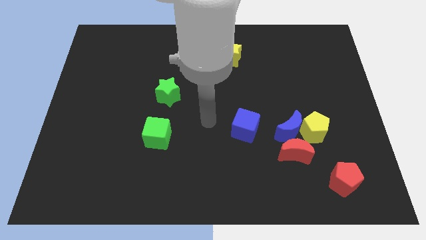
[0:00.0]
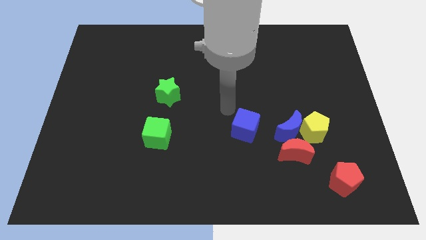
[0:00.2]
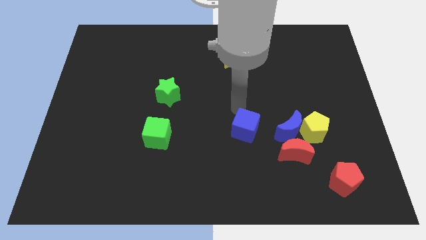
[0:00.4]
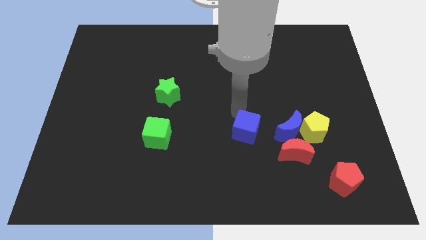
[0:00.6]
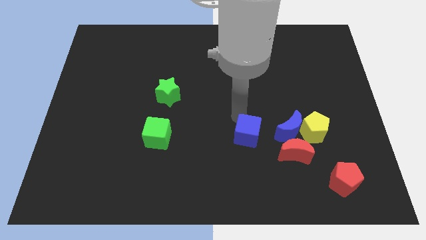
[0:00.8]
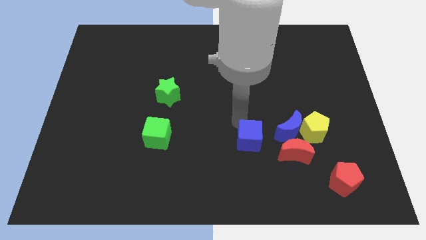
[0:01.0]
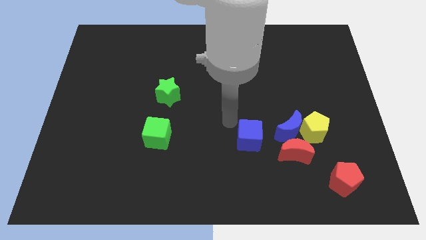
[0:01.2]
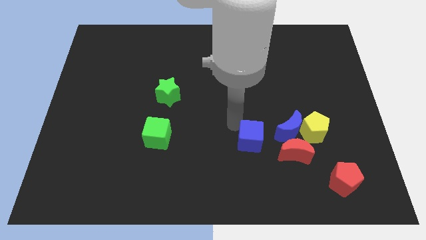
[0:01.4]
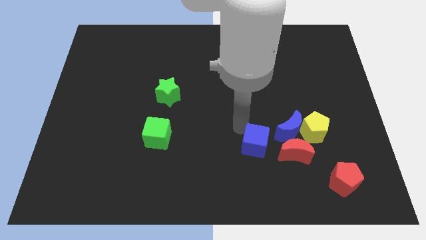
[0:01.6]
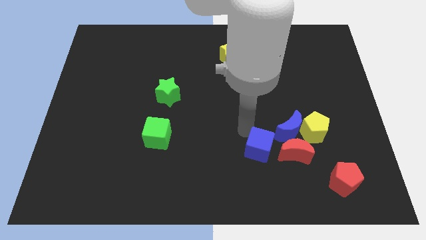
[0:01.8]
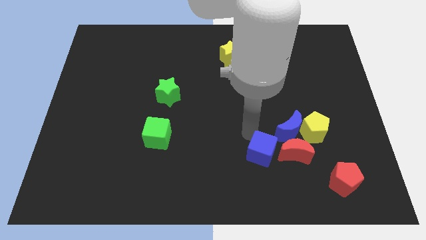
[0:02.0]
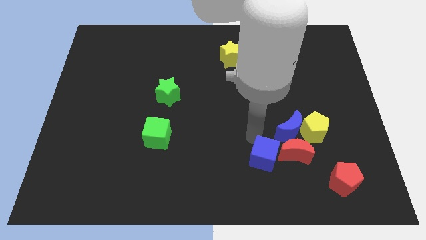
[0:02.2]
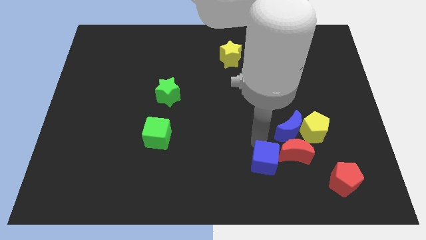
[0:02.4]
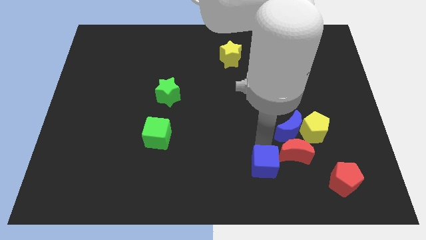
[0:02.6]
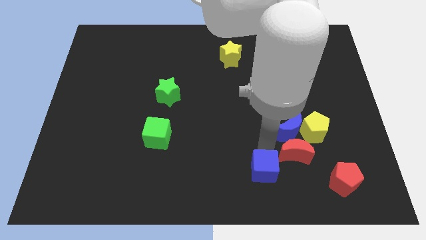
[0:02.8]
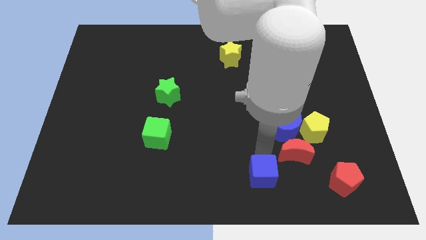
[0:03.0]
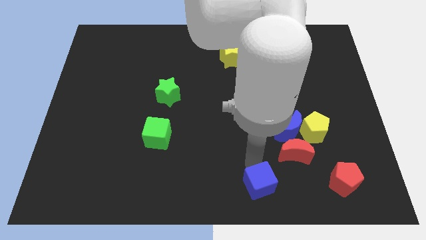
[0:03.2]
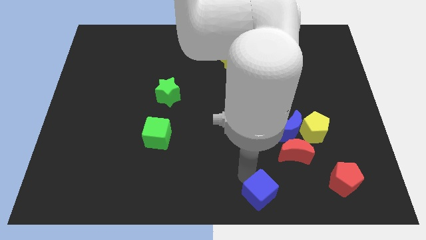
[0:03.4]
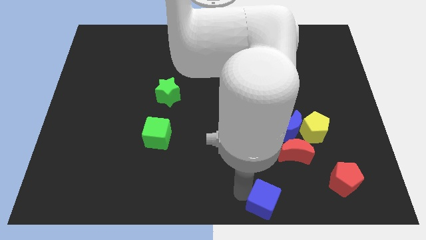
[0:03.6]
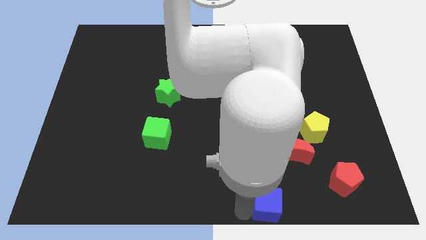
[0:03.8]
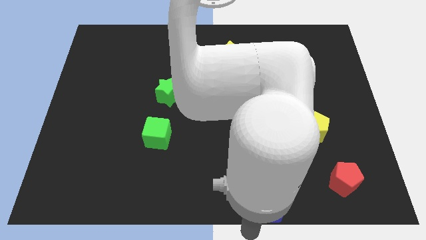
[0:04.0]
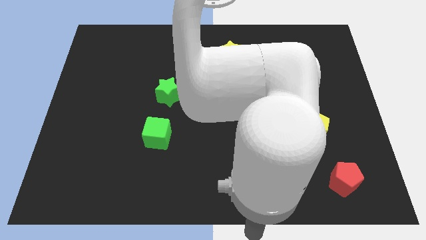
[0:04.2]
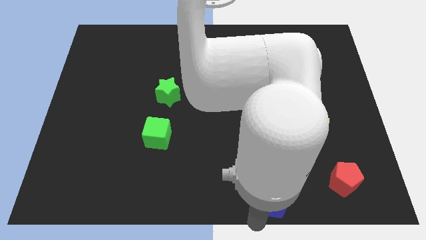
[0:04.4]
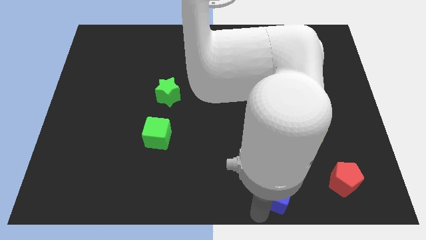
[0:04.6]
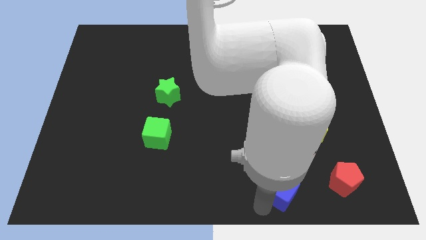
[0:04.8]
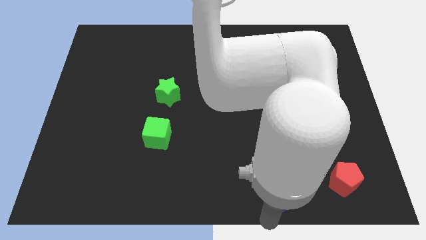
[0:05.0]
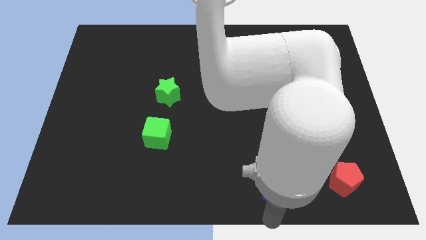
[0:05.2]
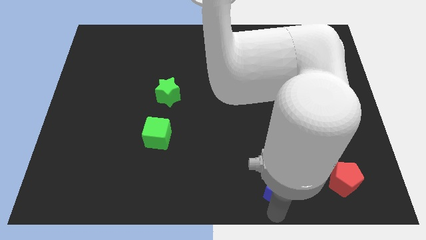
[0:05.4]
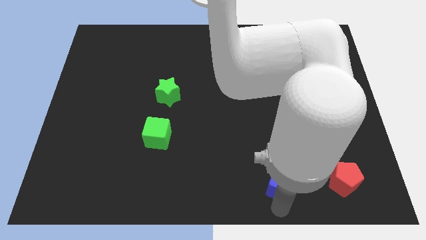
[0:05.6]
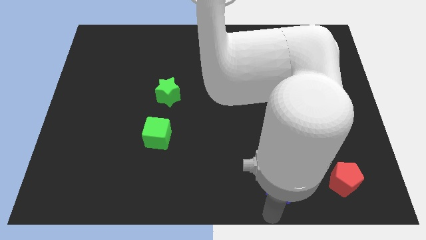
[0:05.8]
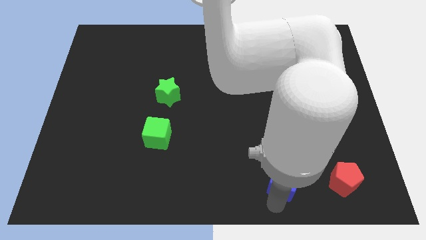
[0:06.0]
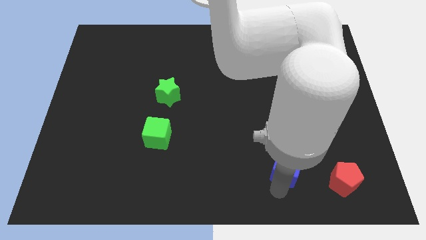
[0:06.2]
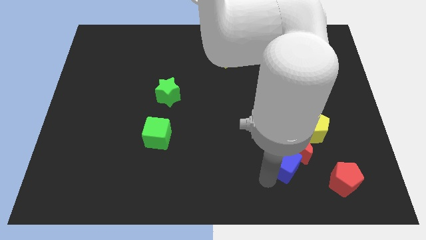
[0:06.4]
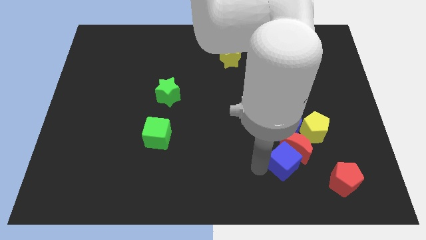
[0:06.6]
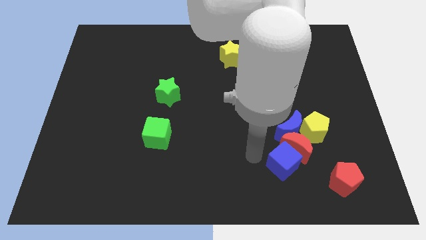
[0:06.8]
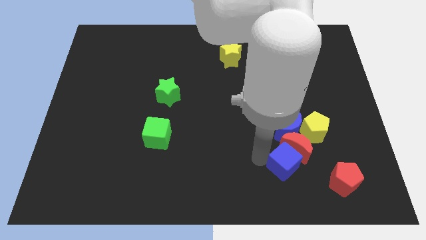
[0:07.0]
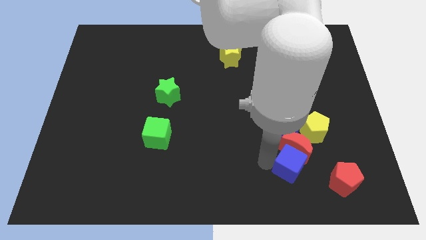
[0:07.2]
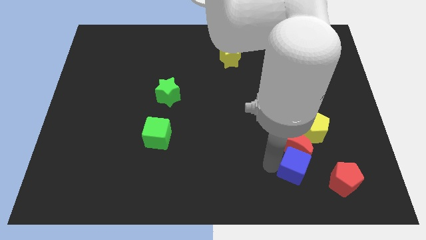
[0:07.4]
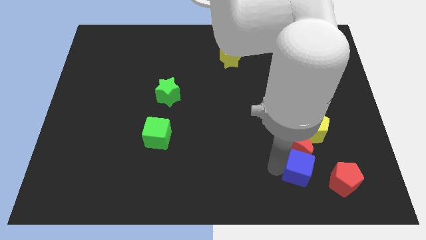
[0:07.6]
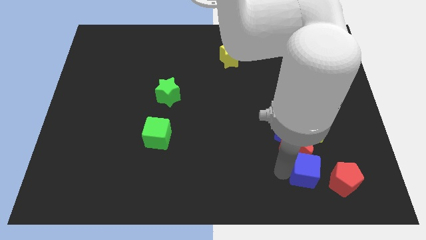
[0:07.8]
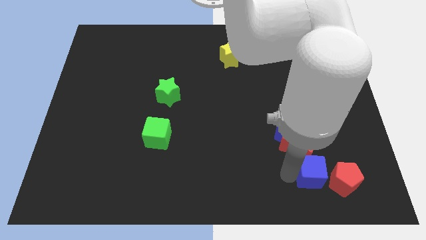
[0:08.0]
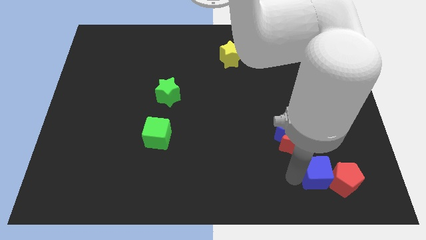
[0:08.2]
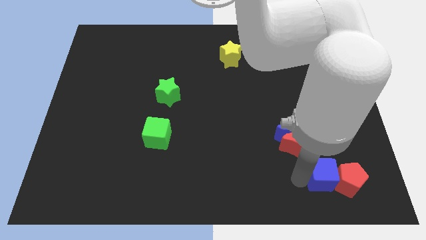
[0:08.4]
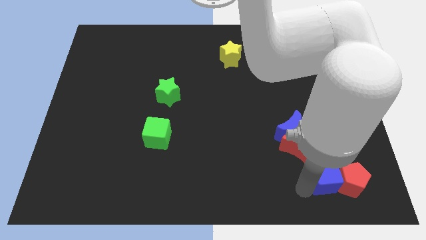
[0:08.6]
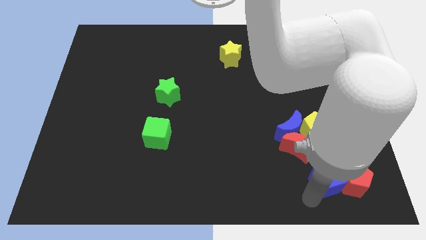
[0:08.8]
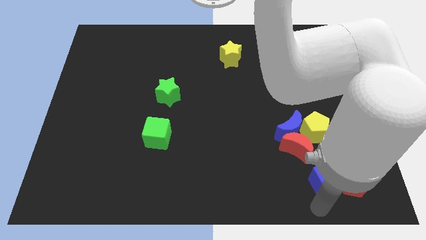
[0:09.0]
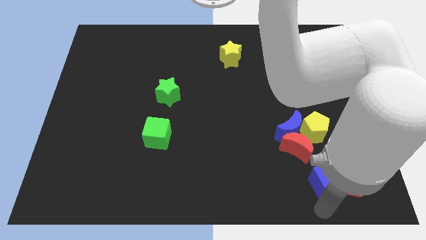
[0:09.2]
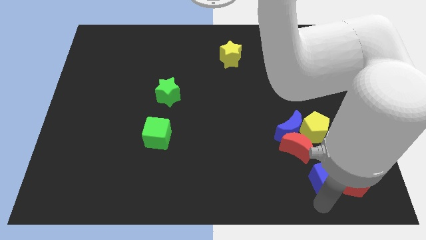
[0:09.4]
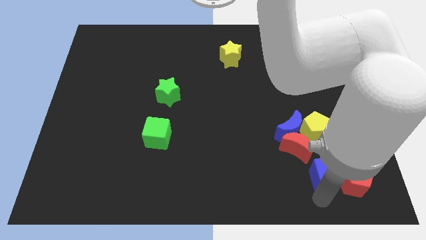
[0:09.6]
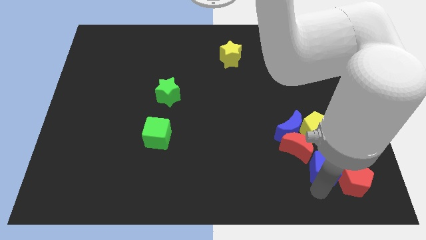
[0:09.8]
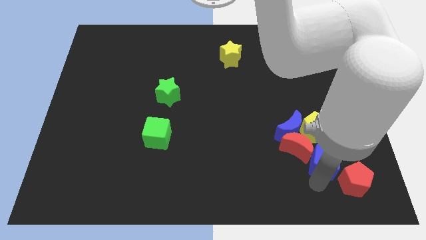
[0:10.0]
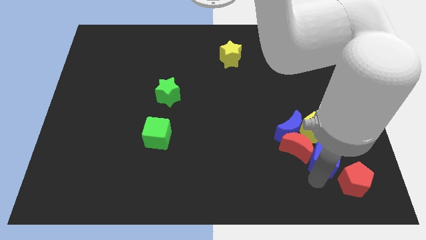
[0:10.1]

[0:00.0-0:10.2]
slide the blue cube diagonally down and to the right of the yellow pentagon

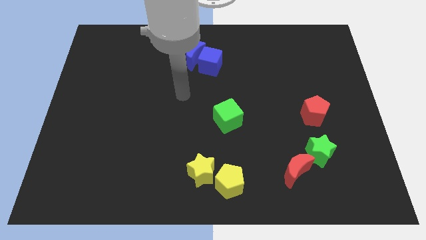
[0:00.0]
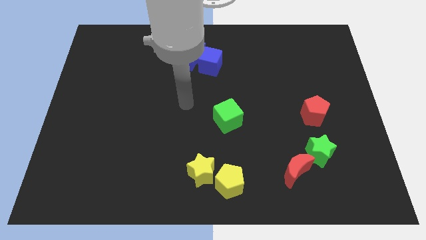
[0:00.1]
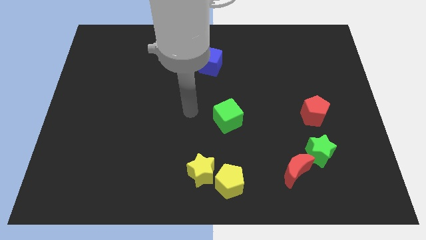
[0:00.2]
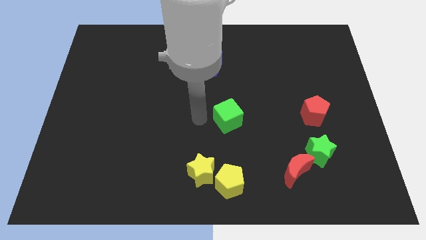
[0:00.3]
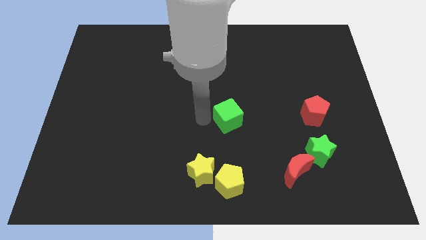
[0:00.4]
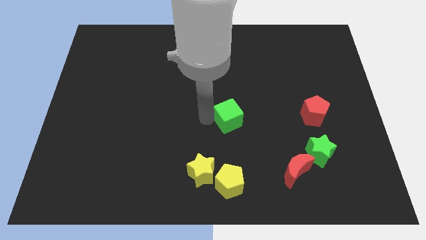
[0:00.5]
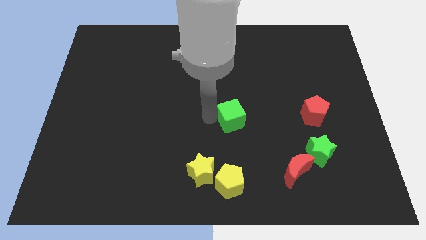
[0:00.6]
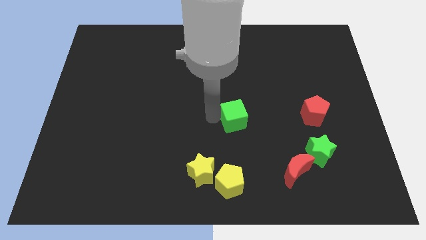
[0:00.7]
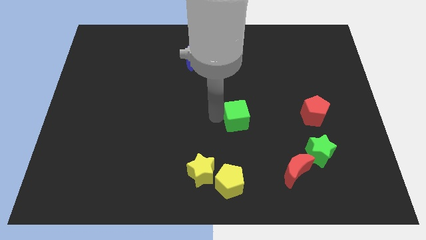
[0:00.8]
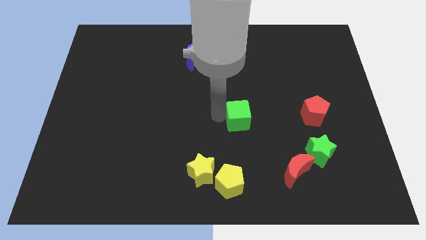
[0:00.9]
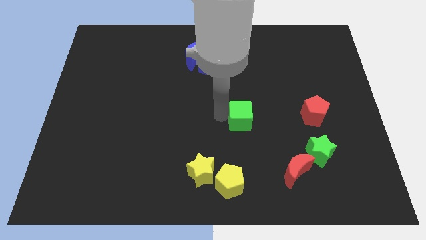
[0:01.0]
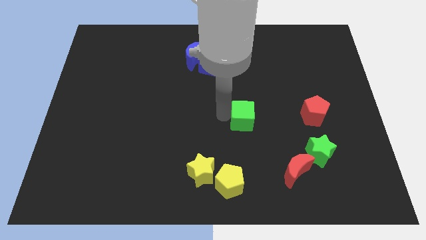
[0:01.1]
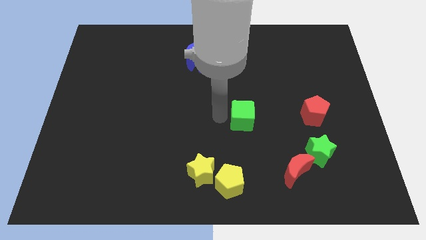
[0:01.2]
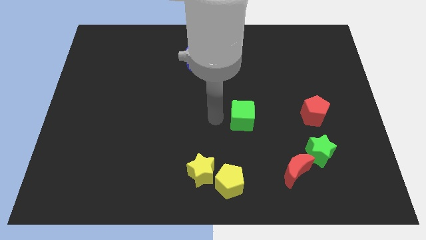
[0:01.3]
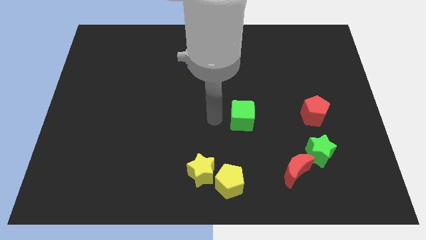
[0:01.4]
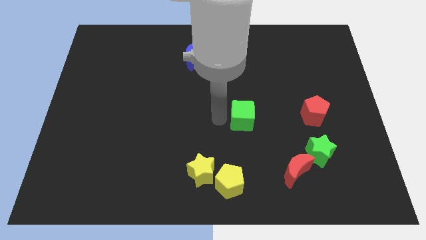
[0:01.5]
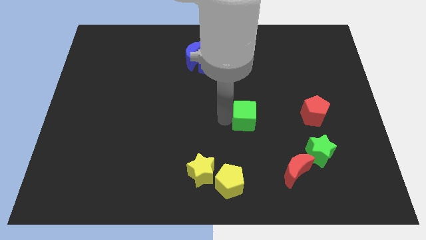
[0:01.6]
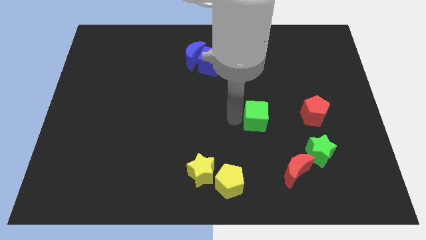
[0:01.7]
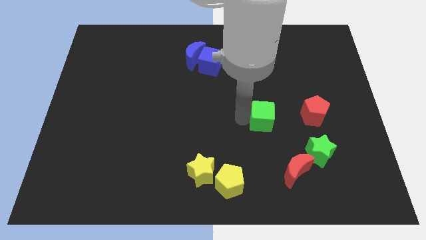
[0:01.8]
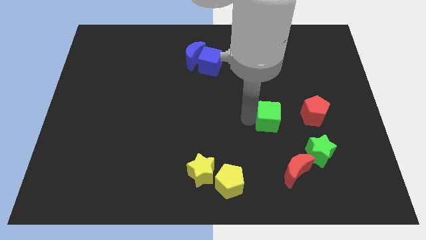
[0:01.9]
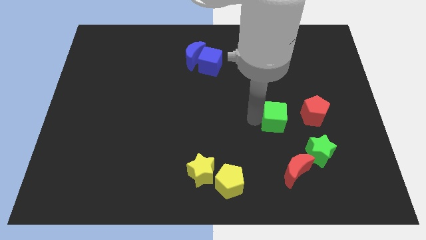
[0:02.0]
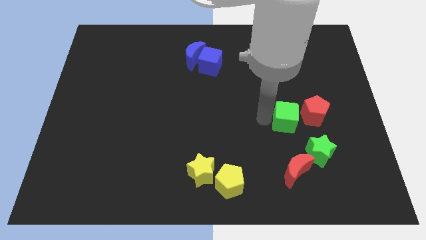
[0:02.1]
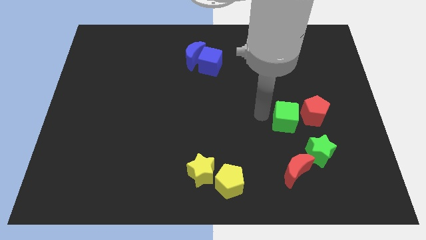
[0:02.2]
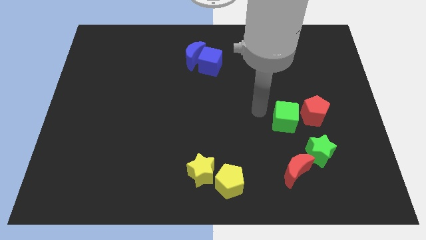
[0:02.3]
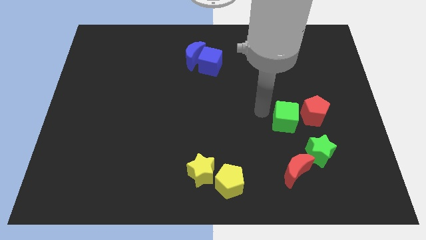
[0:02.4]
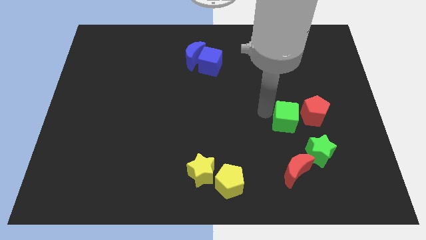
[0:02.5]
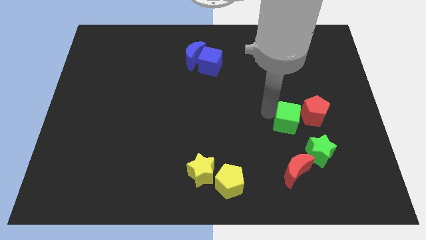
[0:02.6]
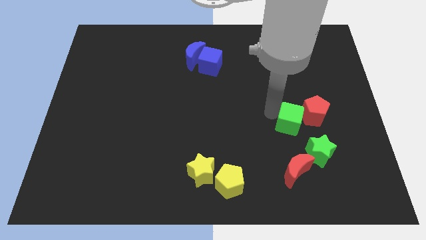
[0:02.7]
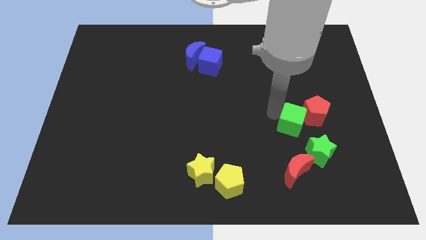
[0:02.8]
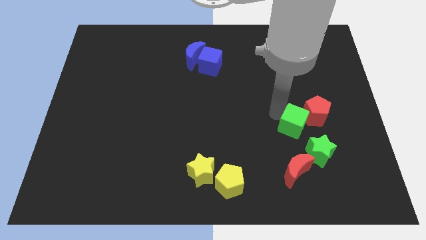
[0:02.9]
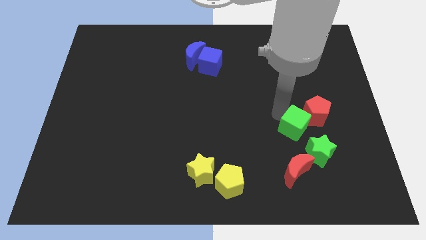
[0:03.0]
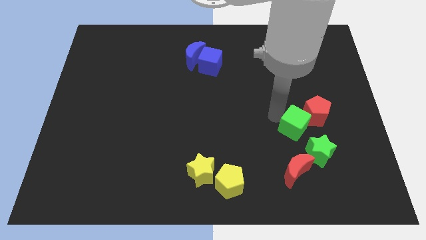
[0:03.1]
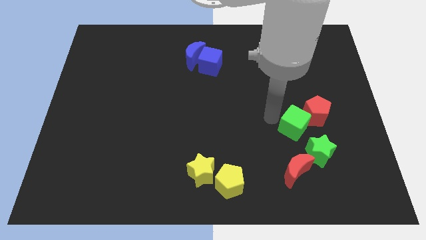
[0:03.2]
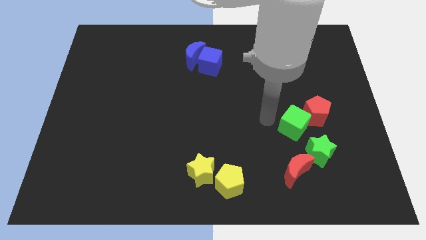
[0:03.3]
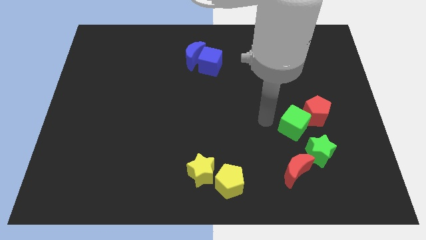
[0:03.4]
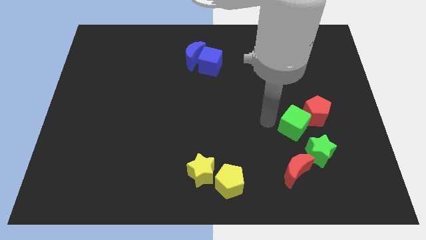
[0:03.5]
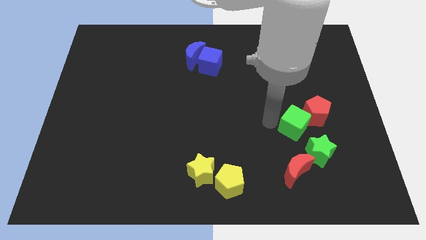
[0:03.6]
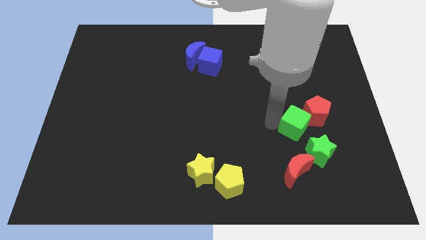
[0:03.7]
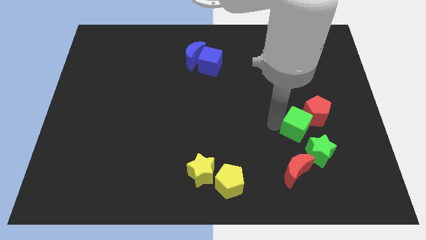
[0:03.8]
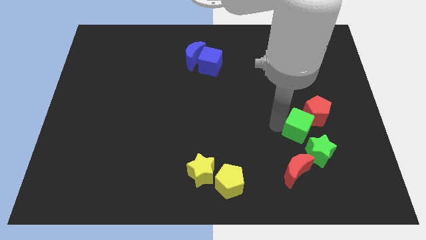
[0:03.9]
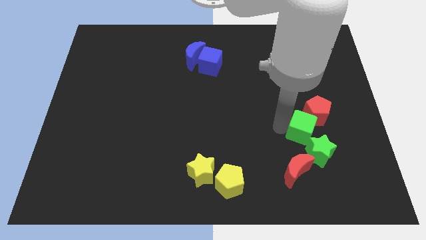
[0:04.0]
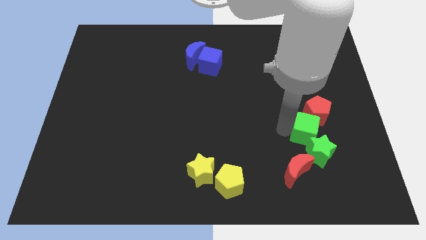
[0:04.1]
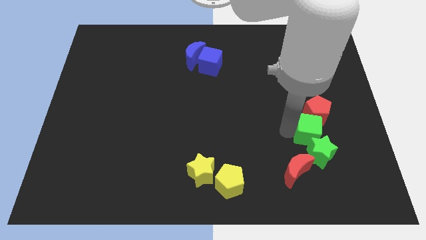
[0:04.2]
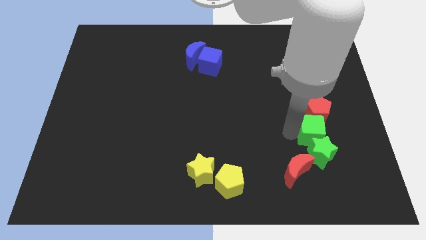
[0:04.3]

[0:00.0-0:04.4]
put the green cube to the top right side of the green star
